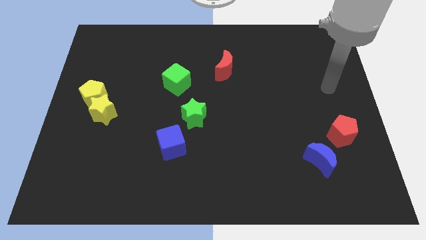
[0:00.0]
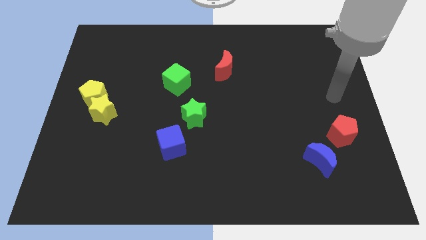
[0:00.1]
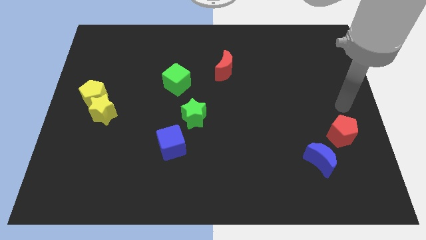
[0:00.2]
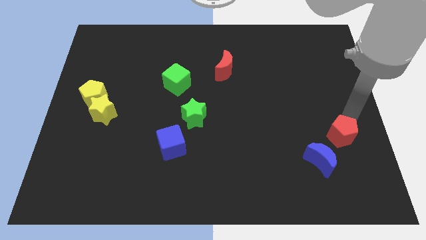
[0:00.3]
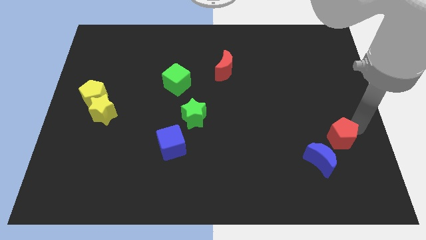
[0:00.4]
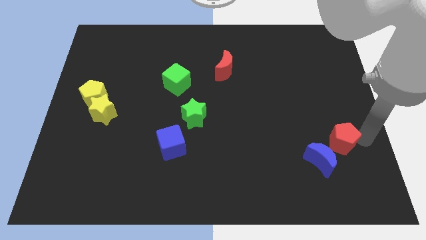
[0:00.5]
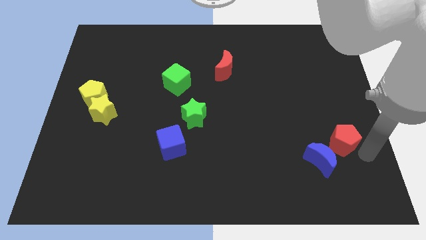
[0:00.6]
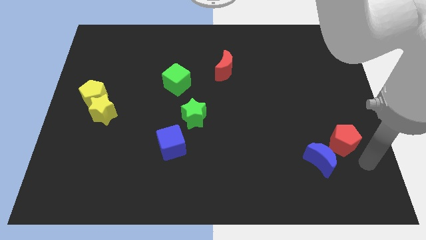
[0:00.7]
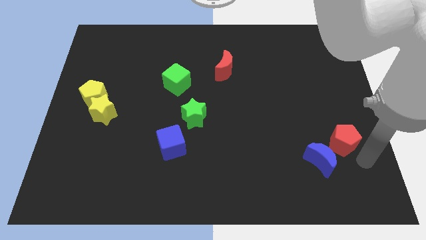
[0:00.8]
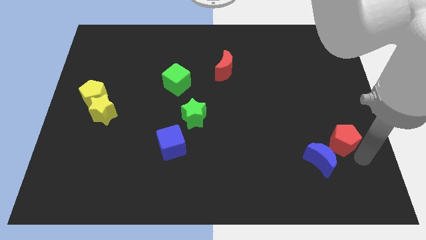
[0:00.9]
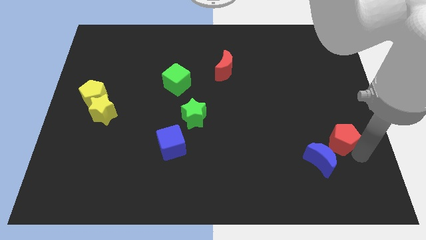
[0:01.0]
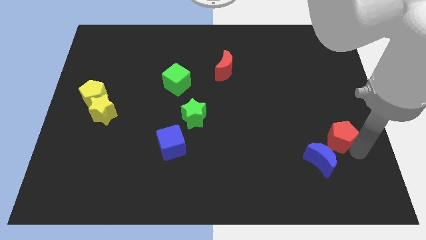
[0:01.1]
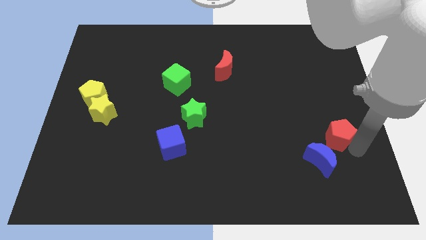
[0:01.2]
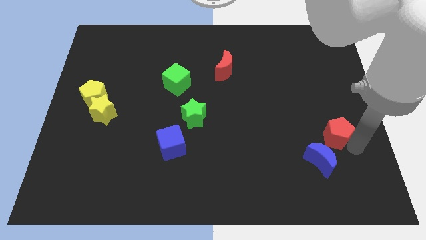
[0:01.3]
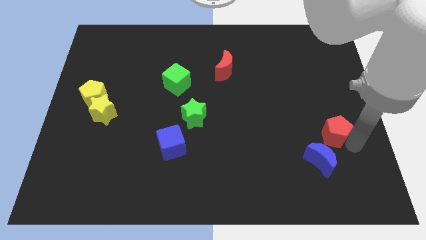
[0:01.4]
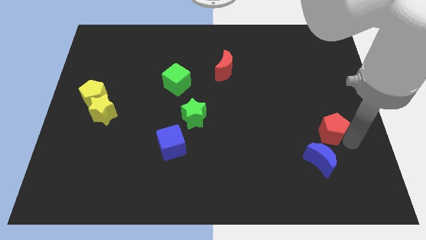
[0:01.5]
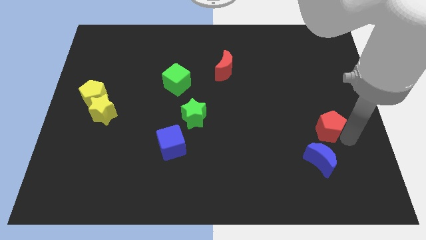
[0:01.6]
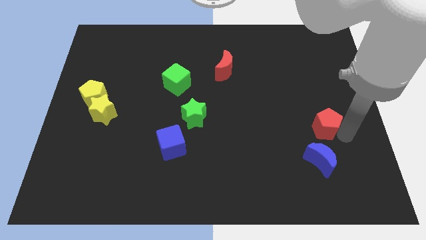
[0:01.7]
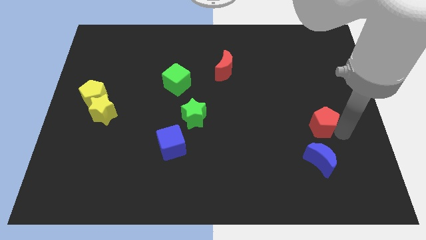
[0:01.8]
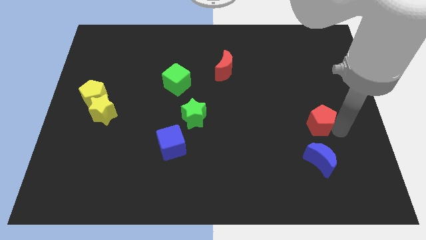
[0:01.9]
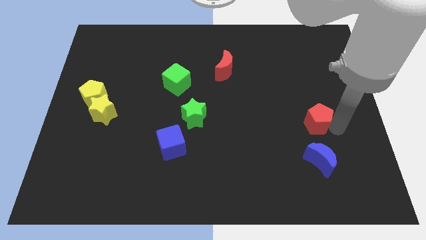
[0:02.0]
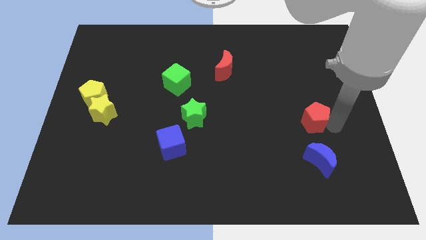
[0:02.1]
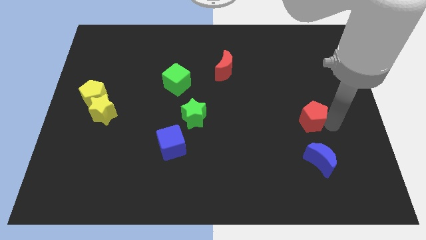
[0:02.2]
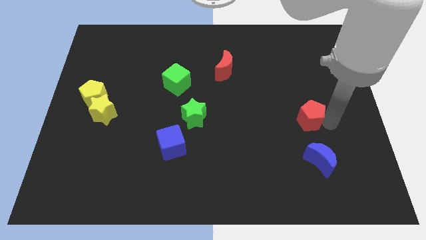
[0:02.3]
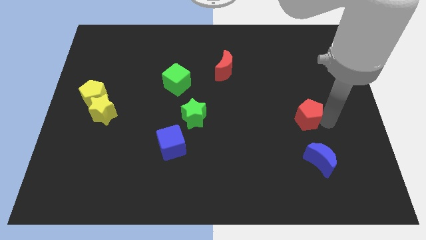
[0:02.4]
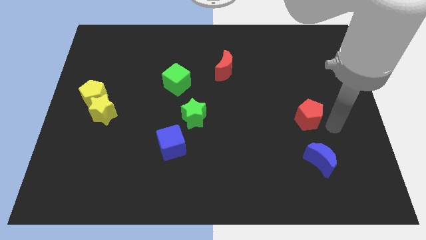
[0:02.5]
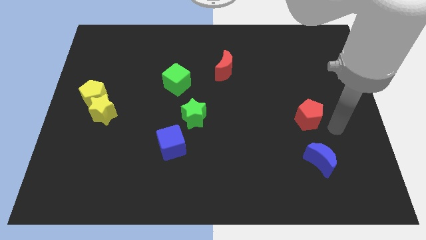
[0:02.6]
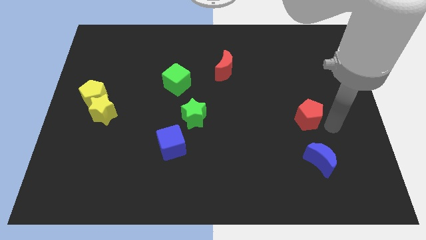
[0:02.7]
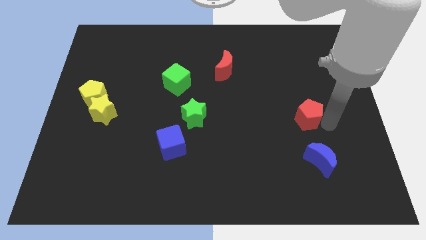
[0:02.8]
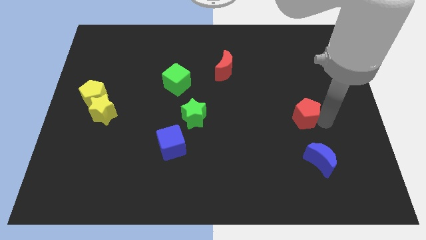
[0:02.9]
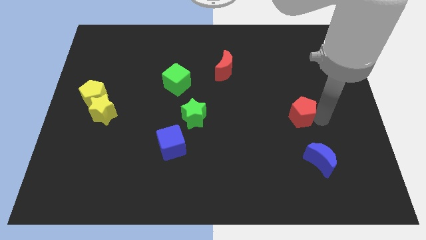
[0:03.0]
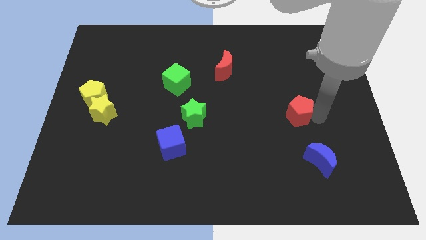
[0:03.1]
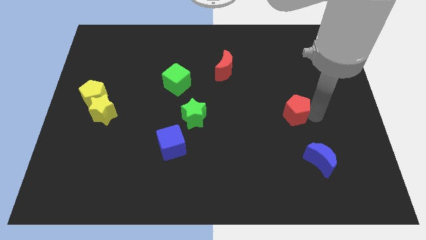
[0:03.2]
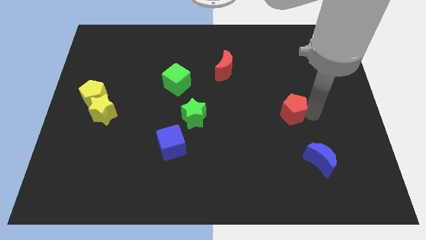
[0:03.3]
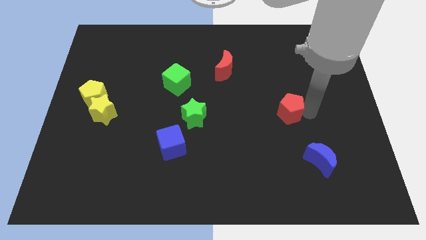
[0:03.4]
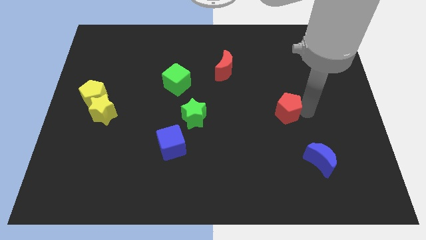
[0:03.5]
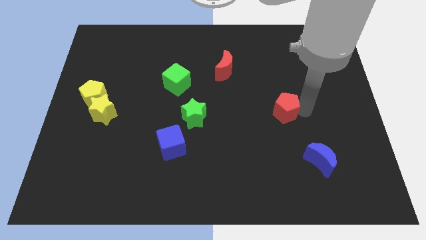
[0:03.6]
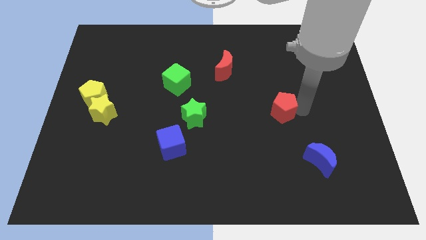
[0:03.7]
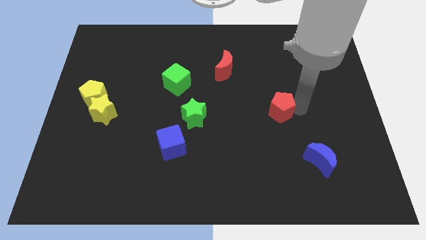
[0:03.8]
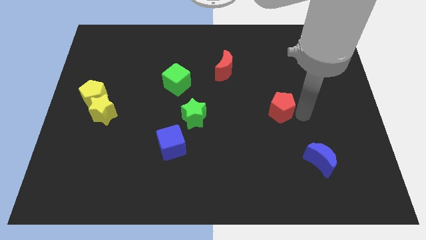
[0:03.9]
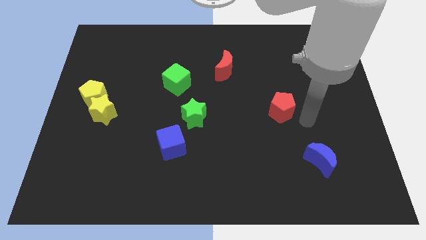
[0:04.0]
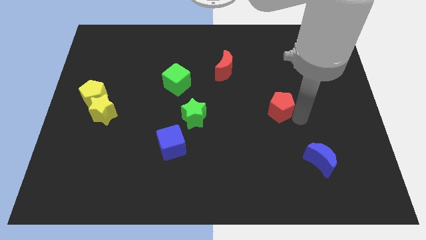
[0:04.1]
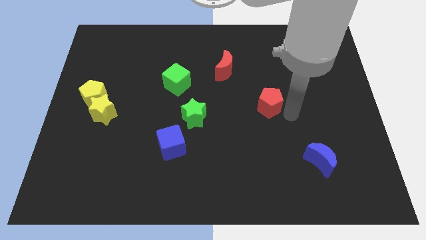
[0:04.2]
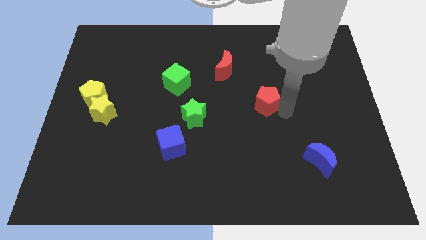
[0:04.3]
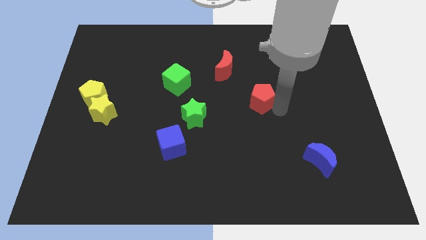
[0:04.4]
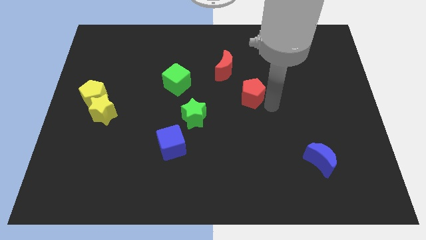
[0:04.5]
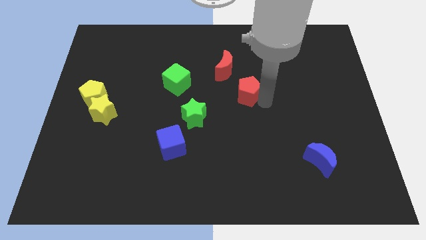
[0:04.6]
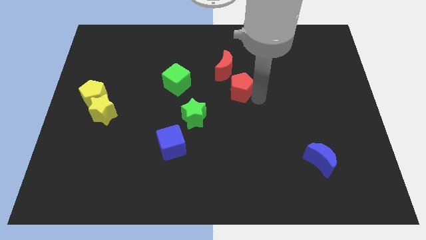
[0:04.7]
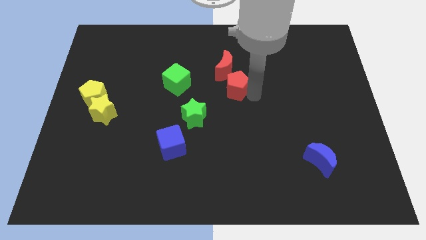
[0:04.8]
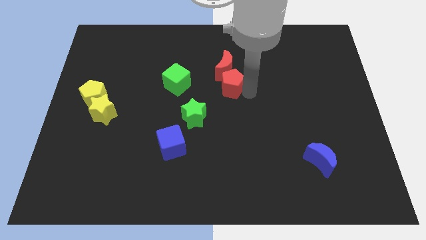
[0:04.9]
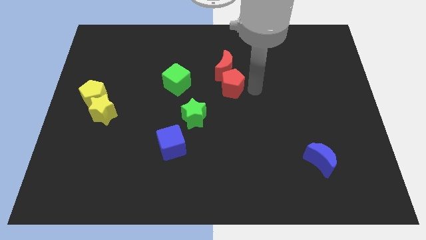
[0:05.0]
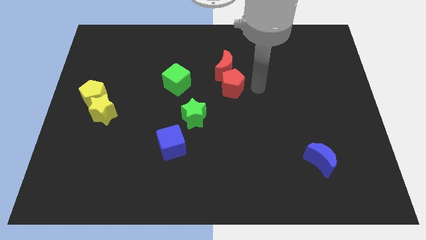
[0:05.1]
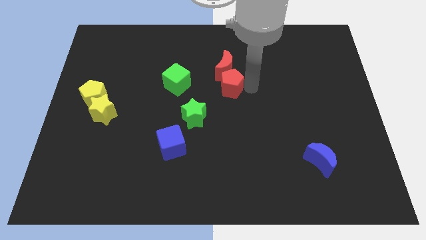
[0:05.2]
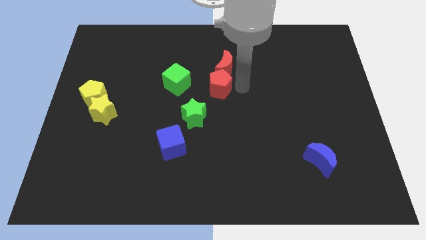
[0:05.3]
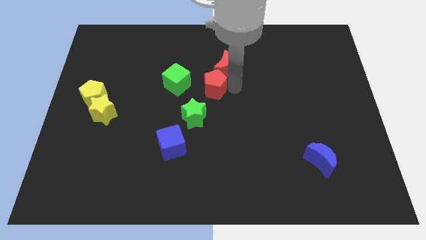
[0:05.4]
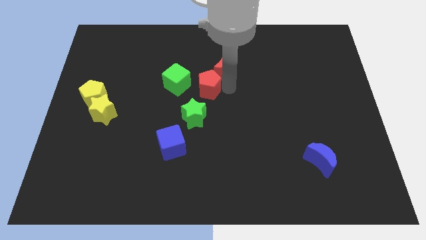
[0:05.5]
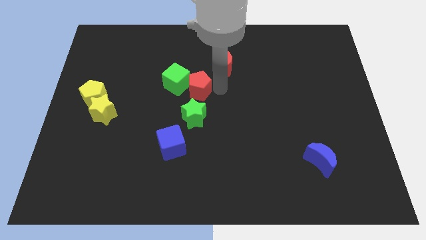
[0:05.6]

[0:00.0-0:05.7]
move the red pentagon towards the green cube
